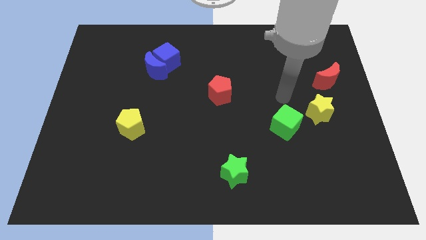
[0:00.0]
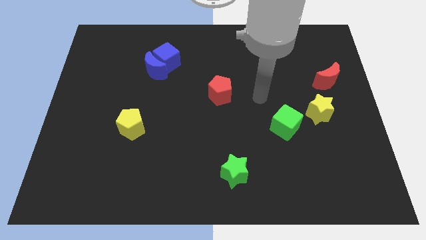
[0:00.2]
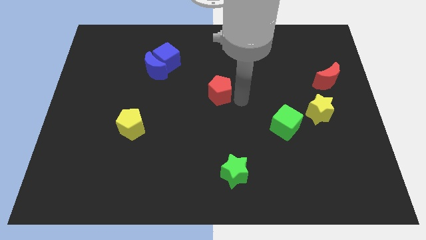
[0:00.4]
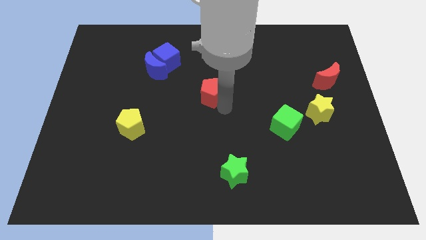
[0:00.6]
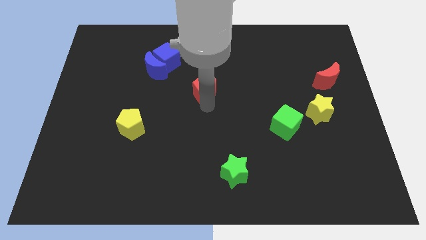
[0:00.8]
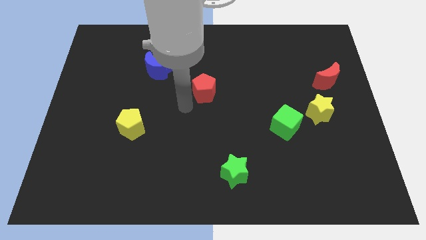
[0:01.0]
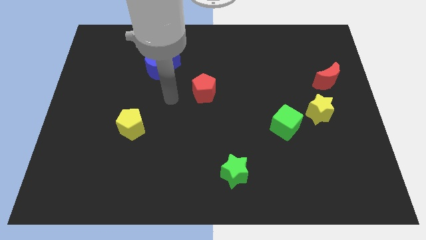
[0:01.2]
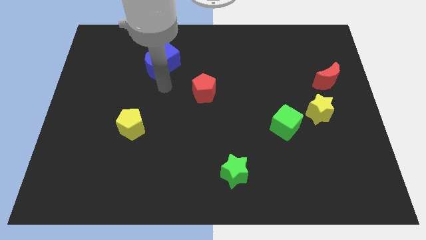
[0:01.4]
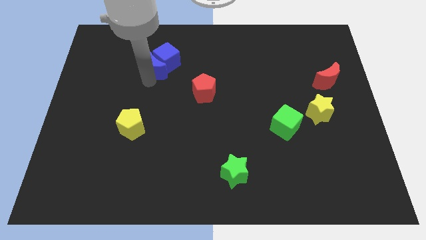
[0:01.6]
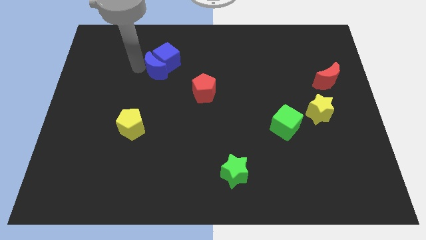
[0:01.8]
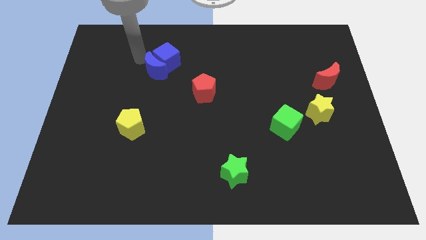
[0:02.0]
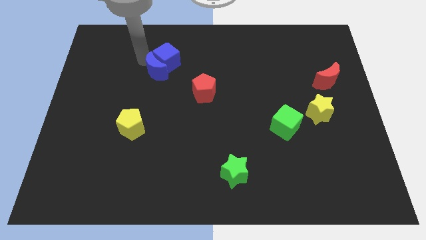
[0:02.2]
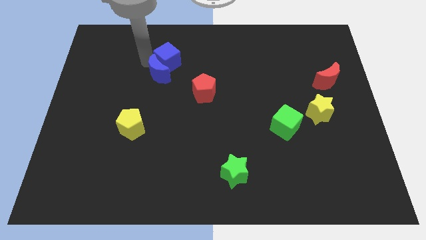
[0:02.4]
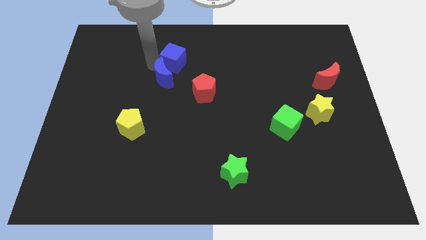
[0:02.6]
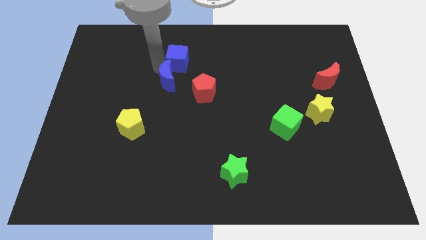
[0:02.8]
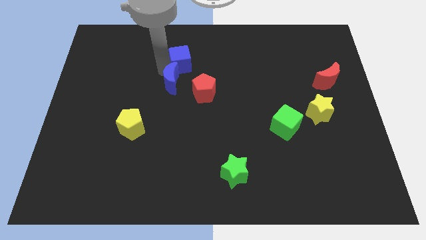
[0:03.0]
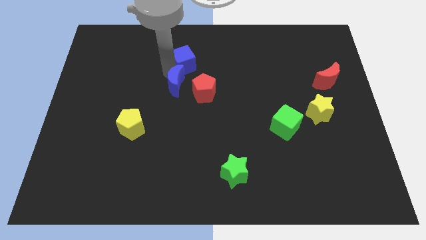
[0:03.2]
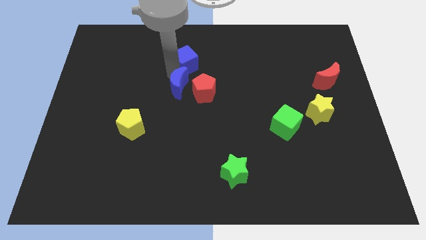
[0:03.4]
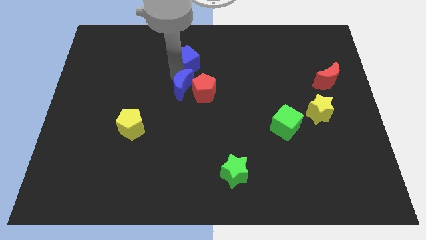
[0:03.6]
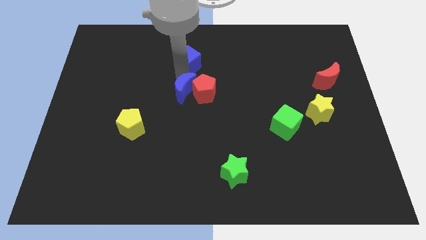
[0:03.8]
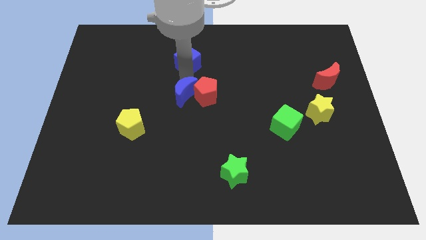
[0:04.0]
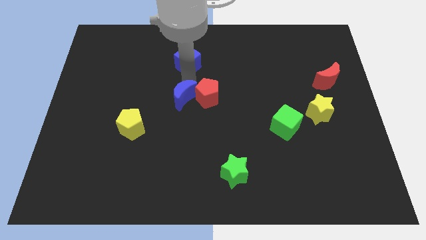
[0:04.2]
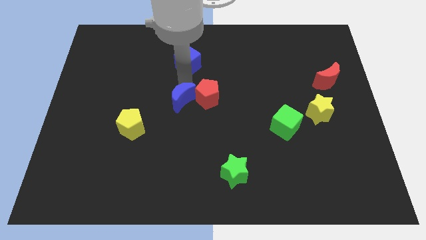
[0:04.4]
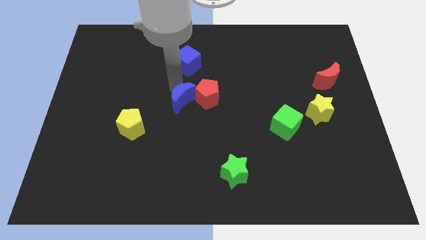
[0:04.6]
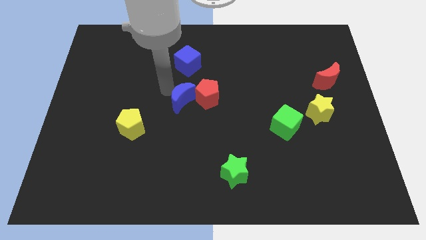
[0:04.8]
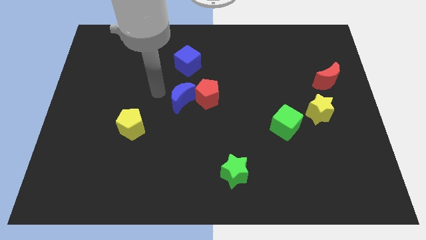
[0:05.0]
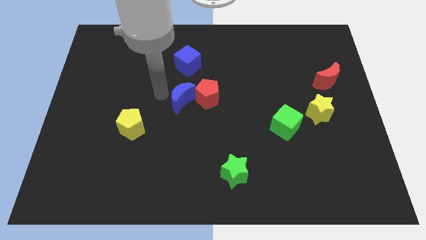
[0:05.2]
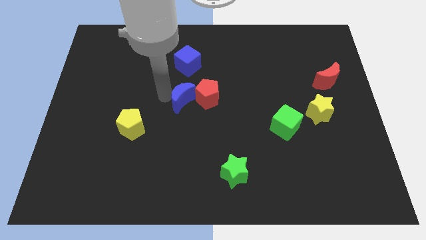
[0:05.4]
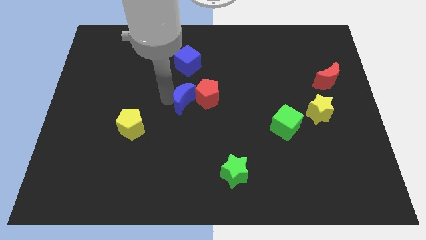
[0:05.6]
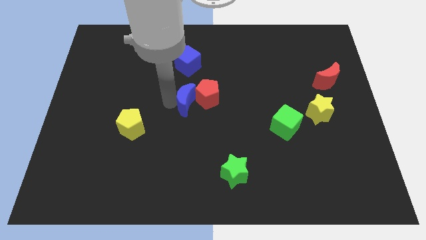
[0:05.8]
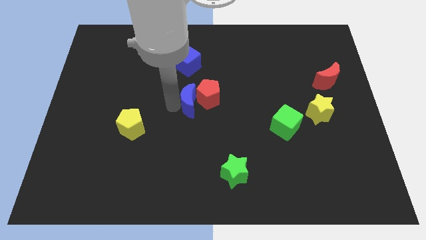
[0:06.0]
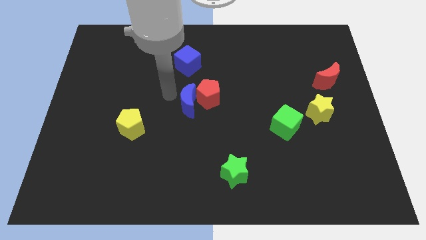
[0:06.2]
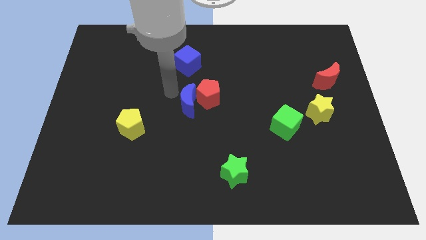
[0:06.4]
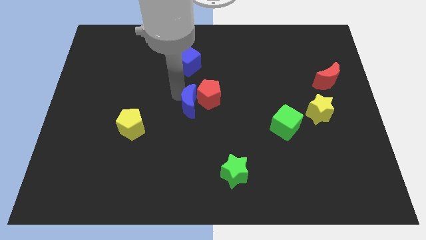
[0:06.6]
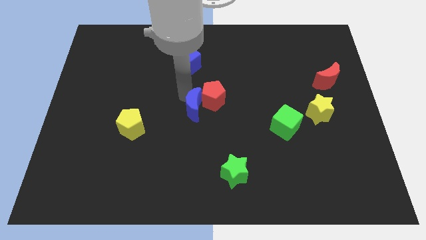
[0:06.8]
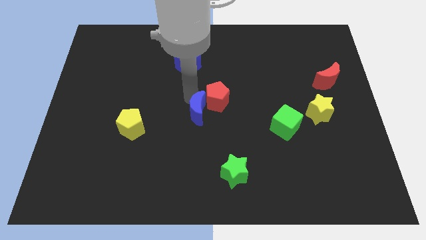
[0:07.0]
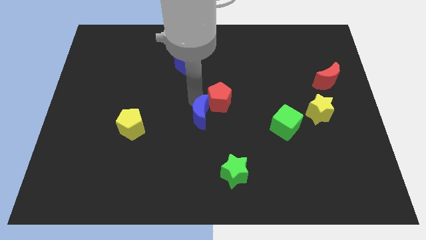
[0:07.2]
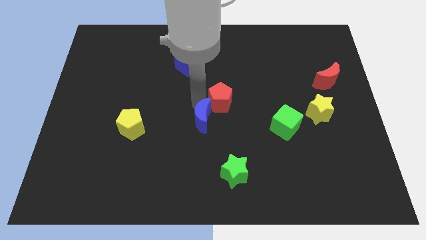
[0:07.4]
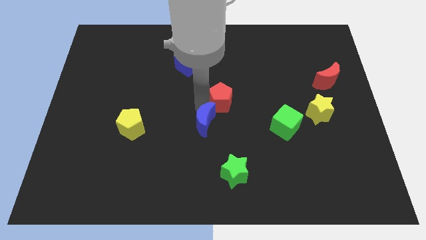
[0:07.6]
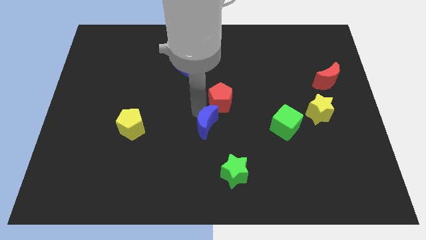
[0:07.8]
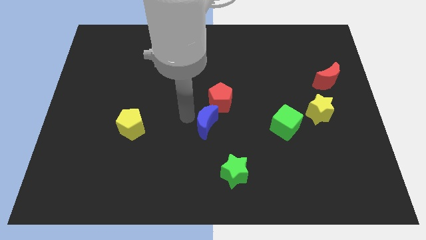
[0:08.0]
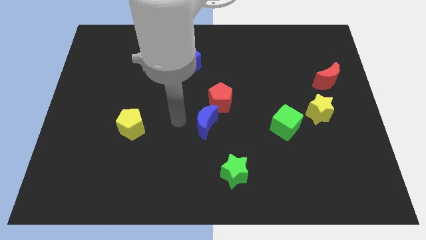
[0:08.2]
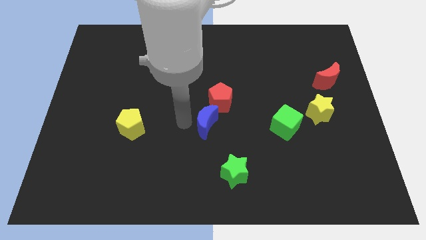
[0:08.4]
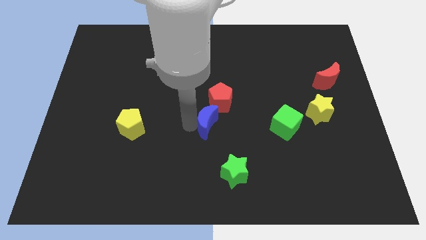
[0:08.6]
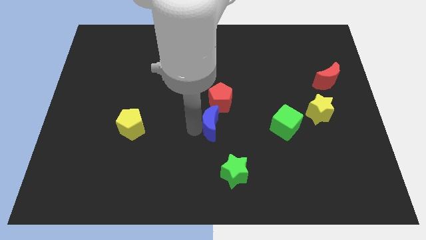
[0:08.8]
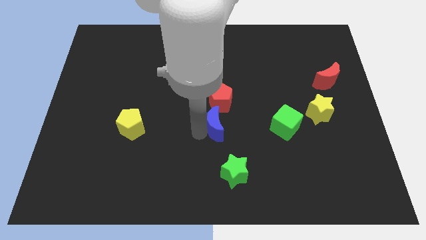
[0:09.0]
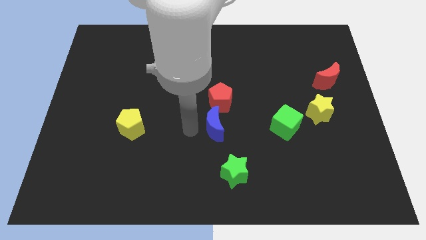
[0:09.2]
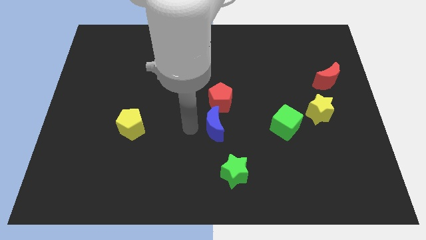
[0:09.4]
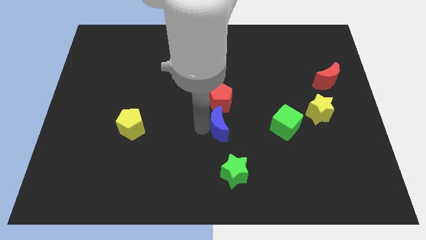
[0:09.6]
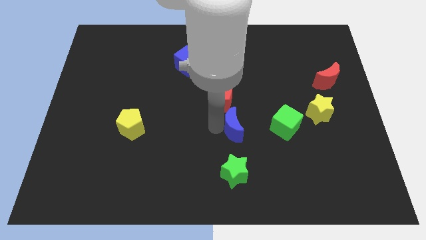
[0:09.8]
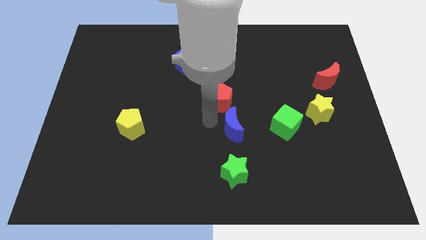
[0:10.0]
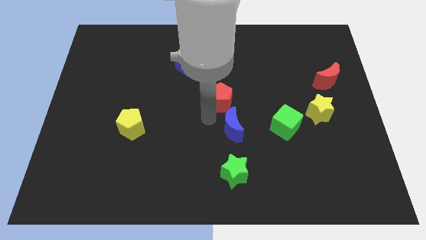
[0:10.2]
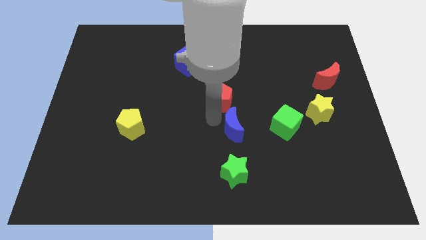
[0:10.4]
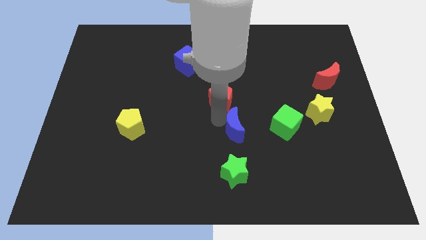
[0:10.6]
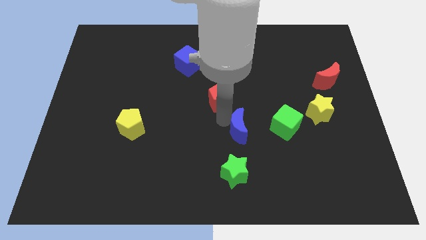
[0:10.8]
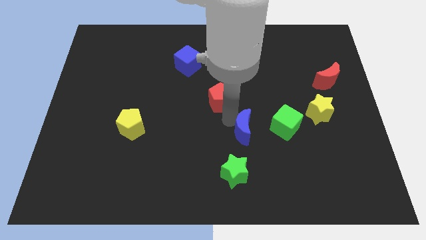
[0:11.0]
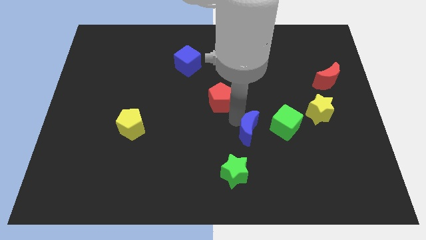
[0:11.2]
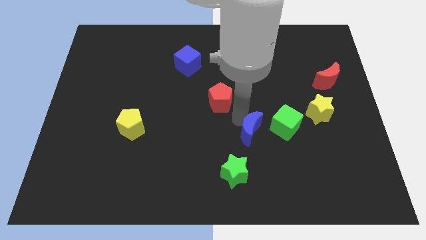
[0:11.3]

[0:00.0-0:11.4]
put the blue moon to the bottom left of the green cube

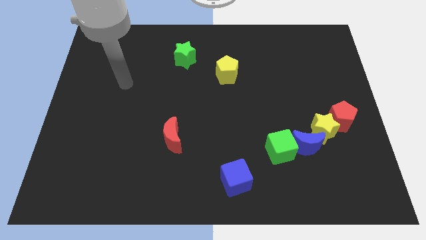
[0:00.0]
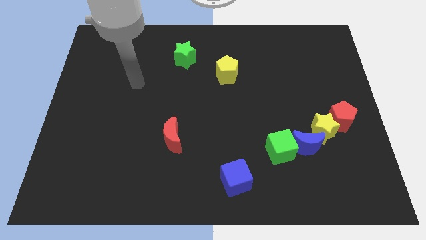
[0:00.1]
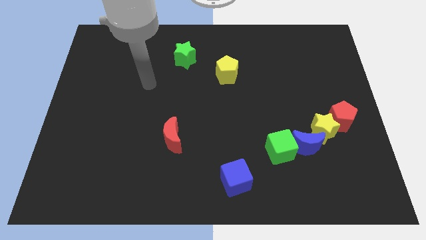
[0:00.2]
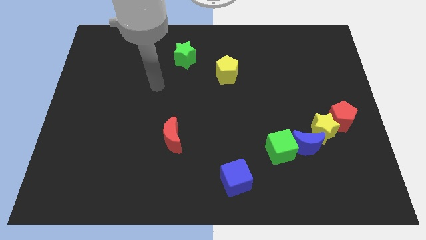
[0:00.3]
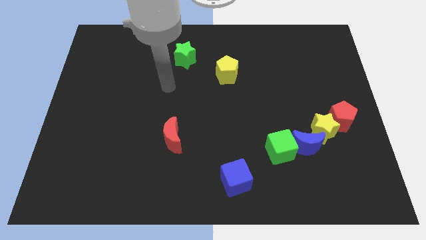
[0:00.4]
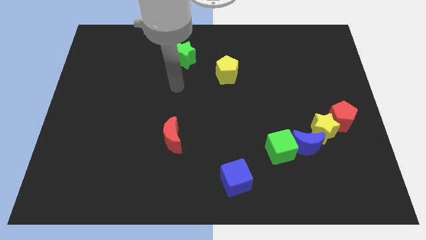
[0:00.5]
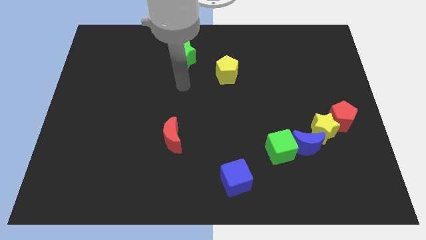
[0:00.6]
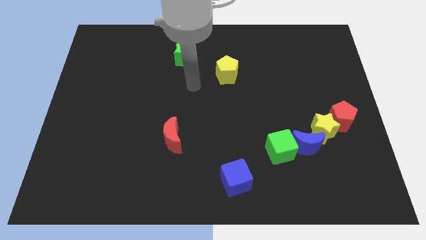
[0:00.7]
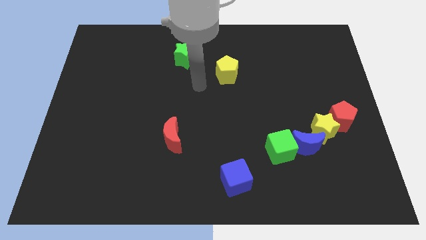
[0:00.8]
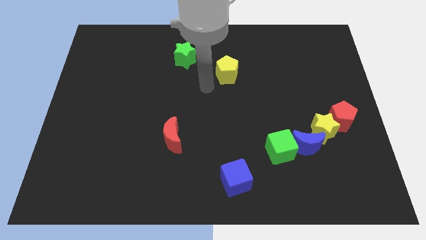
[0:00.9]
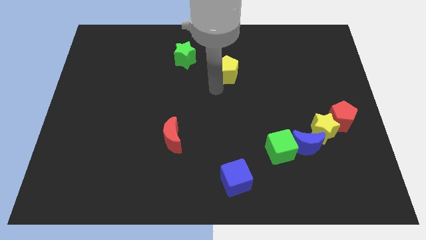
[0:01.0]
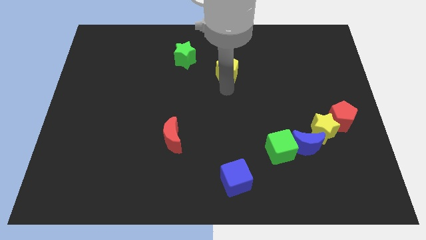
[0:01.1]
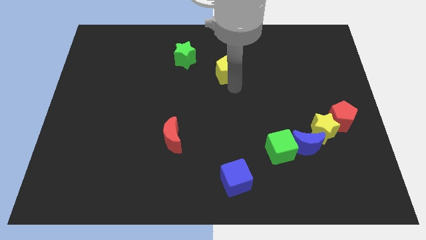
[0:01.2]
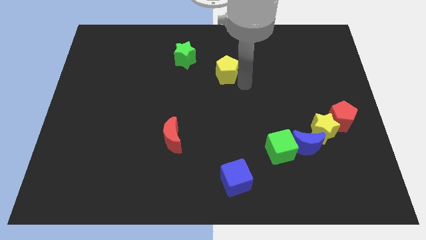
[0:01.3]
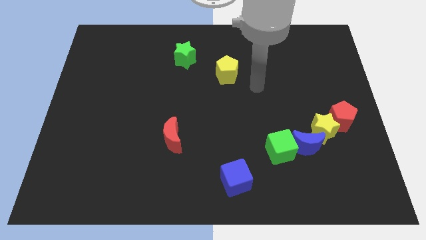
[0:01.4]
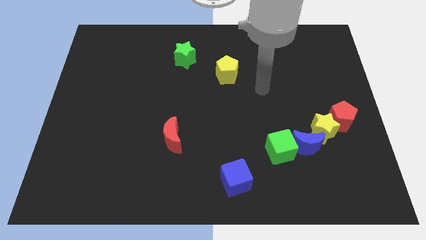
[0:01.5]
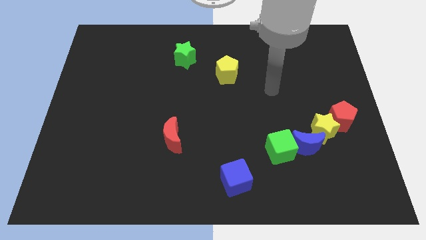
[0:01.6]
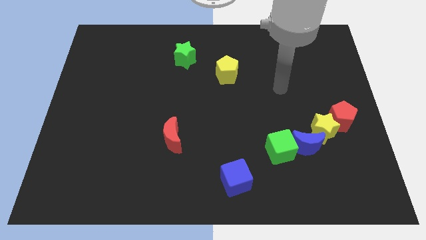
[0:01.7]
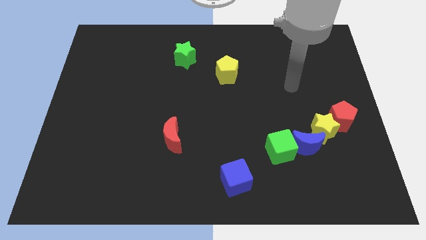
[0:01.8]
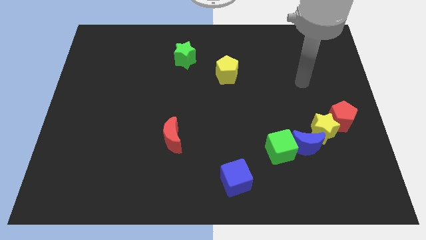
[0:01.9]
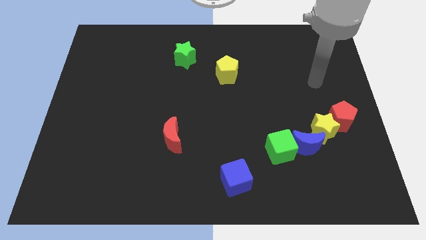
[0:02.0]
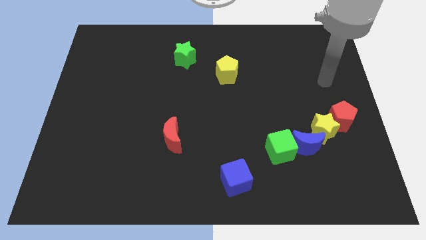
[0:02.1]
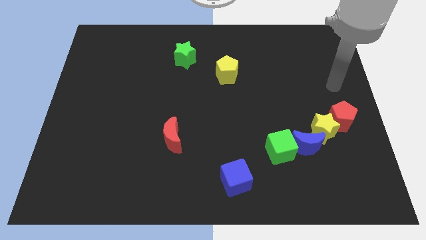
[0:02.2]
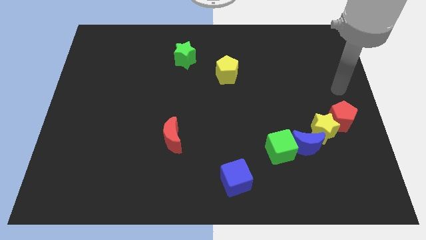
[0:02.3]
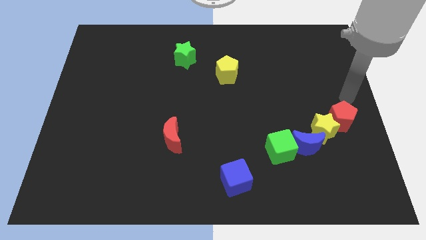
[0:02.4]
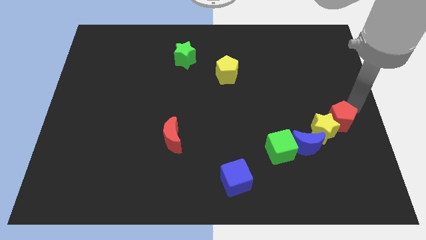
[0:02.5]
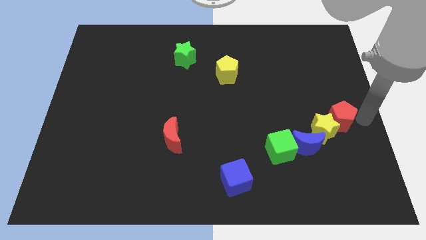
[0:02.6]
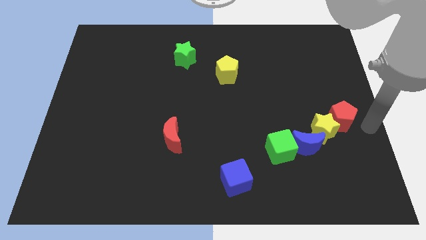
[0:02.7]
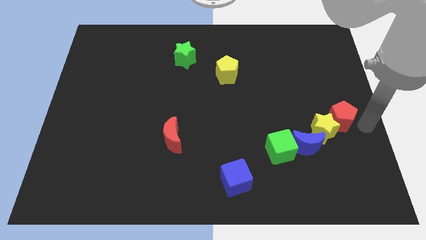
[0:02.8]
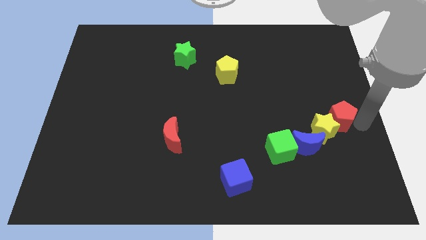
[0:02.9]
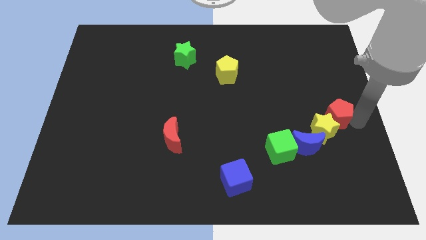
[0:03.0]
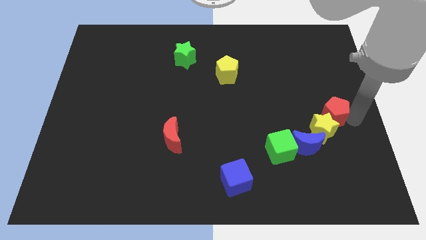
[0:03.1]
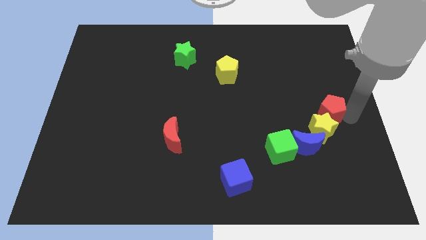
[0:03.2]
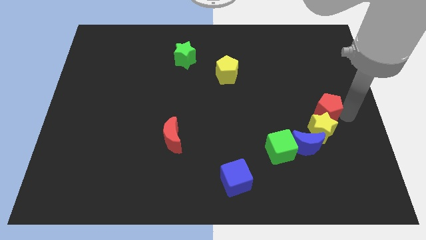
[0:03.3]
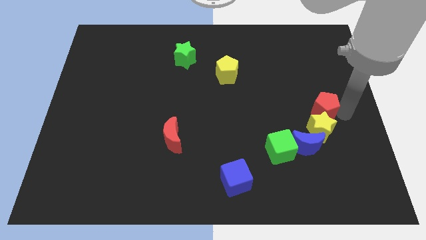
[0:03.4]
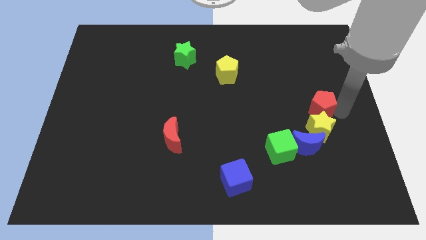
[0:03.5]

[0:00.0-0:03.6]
push the red pentagon above the blue moon
